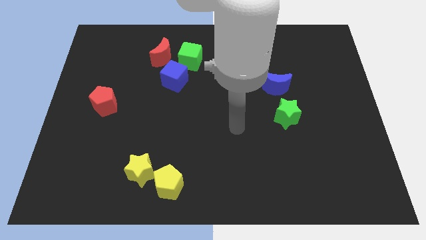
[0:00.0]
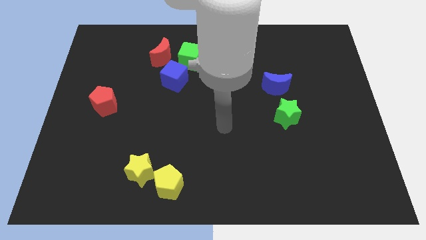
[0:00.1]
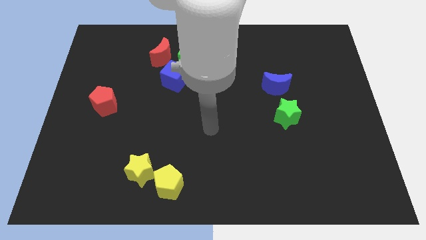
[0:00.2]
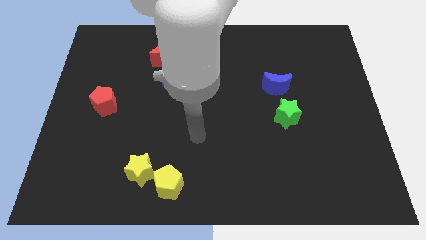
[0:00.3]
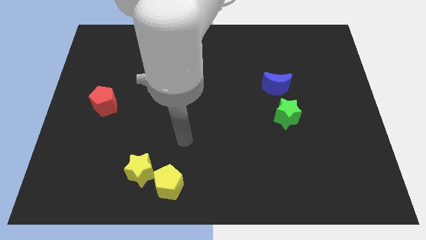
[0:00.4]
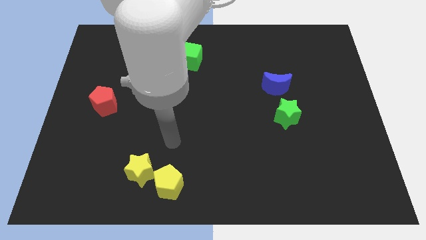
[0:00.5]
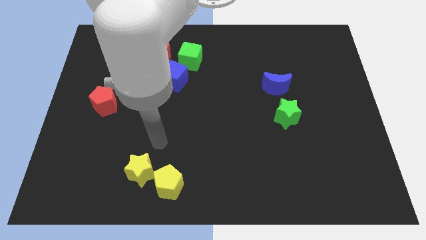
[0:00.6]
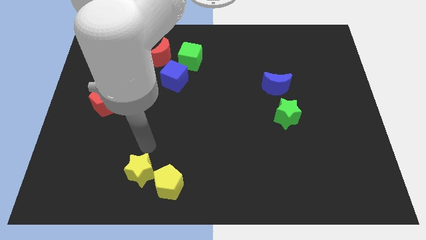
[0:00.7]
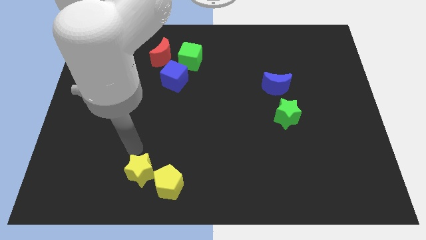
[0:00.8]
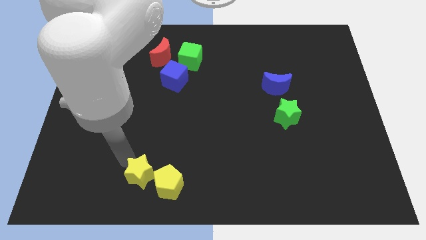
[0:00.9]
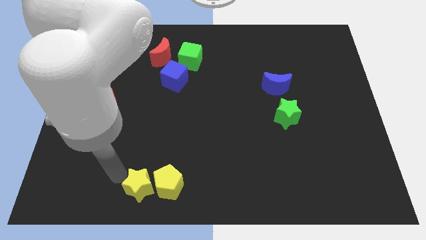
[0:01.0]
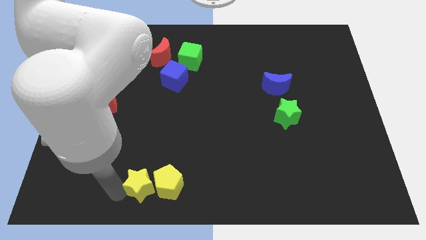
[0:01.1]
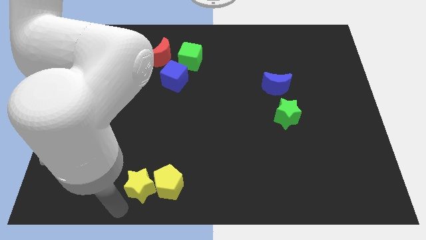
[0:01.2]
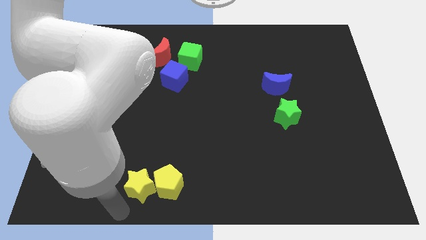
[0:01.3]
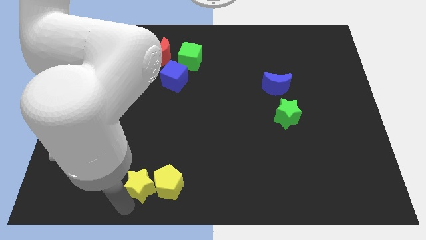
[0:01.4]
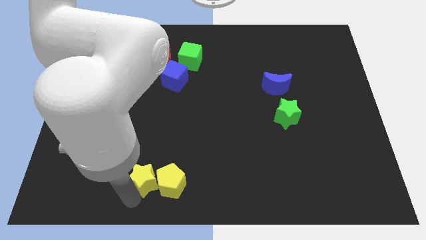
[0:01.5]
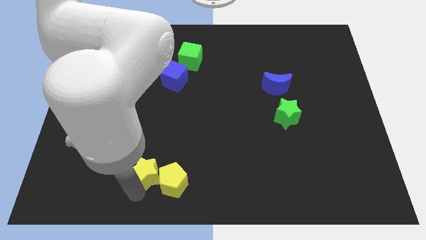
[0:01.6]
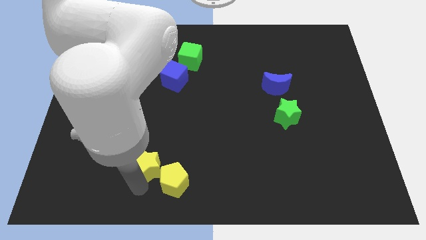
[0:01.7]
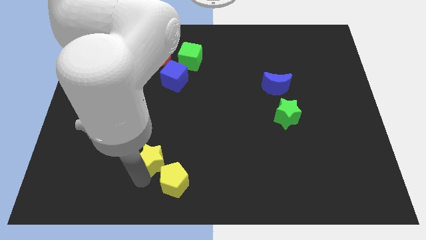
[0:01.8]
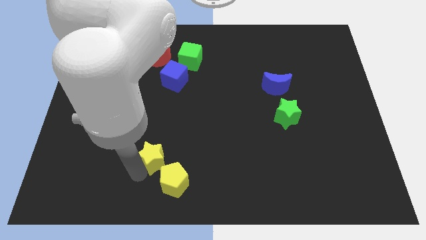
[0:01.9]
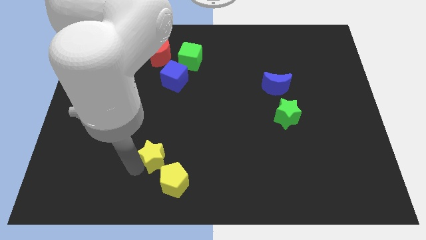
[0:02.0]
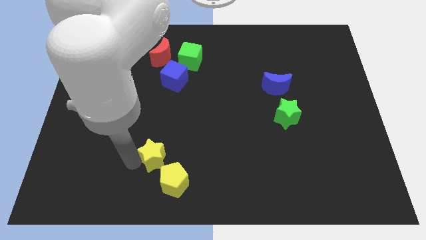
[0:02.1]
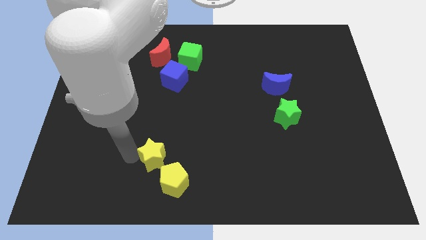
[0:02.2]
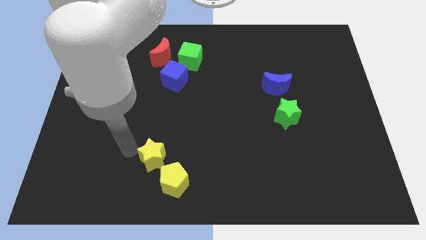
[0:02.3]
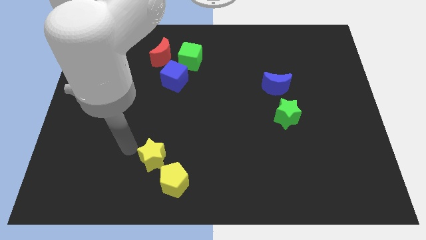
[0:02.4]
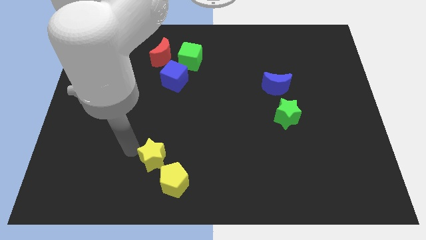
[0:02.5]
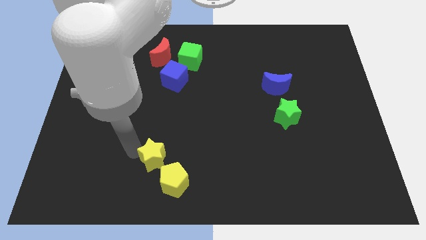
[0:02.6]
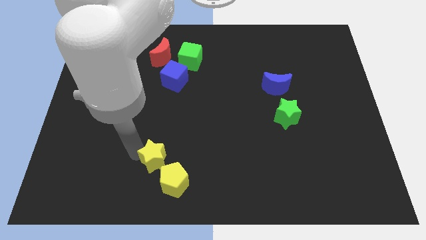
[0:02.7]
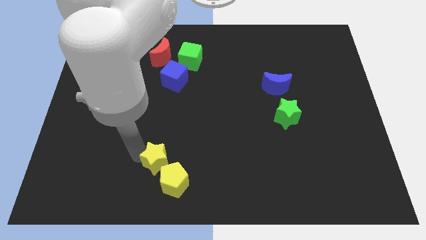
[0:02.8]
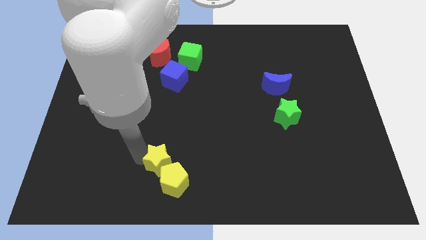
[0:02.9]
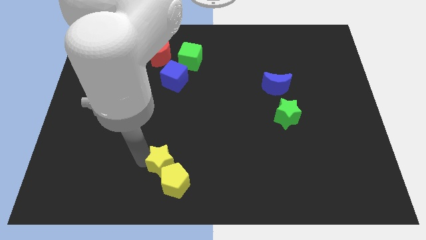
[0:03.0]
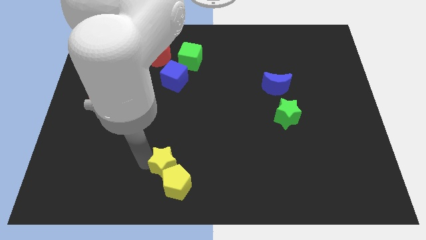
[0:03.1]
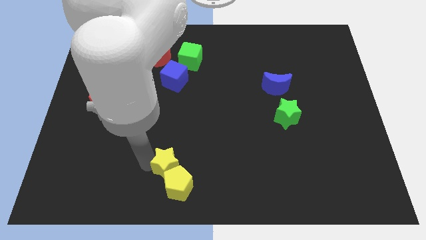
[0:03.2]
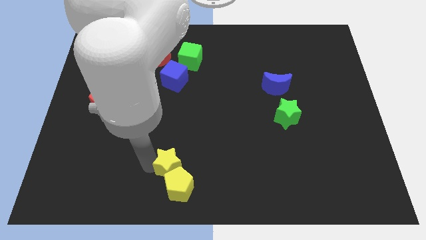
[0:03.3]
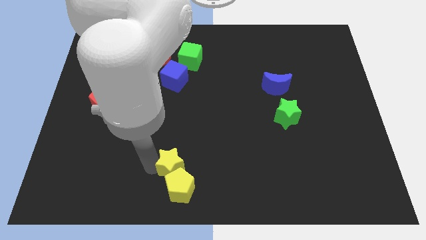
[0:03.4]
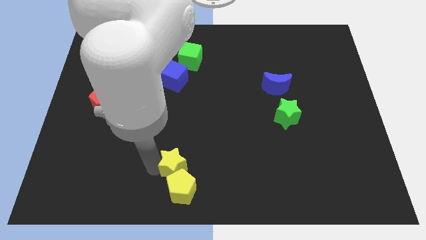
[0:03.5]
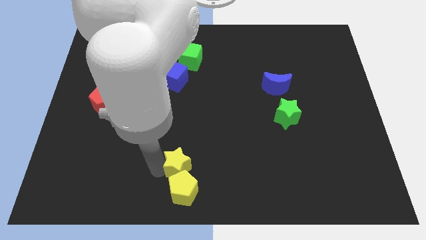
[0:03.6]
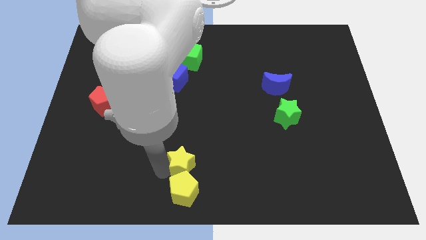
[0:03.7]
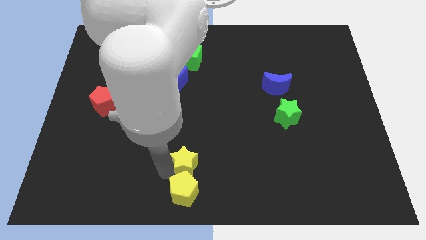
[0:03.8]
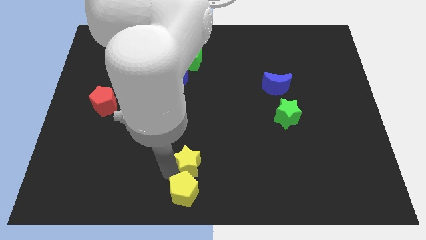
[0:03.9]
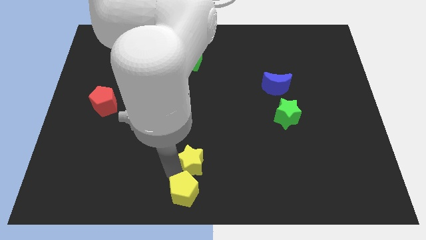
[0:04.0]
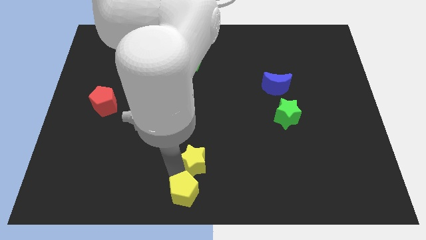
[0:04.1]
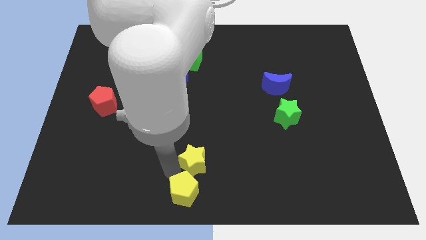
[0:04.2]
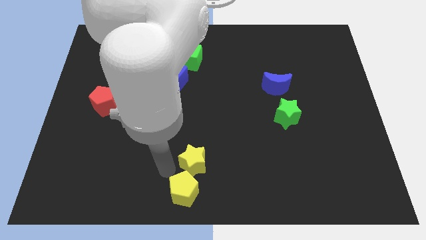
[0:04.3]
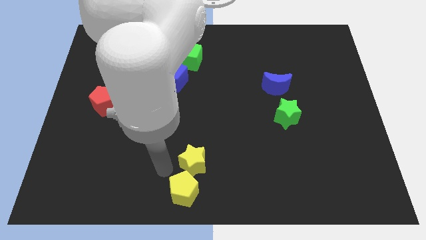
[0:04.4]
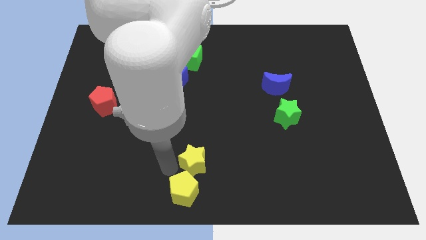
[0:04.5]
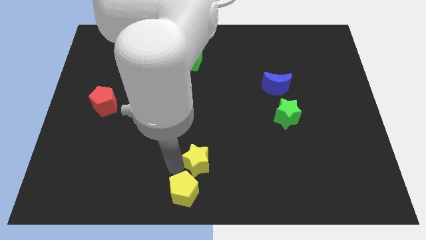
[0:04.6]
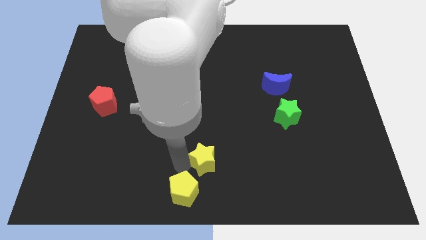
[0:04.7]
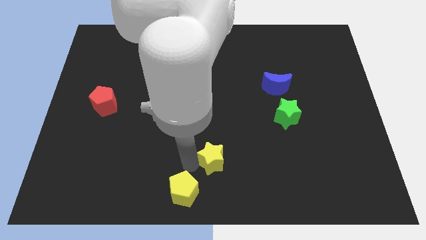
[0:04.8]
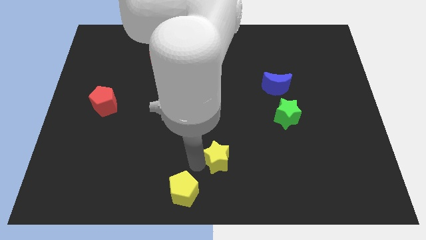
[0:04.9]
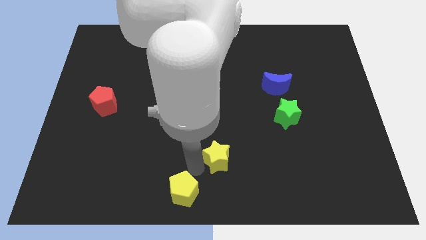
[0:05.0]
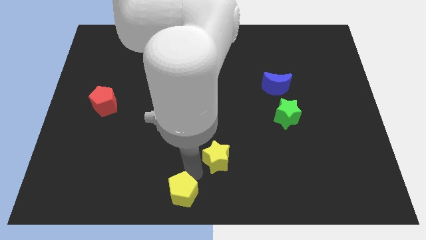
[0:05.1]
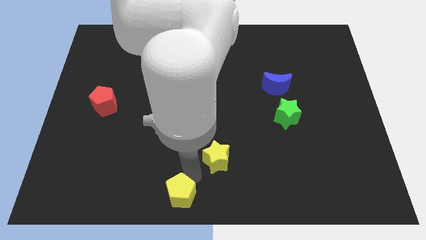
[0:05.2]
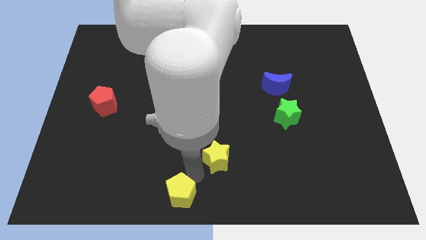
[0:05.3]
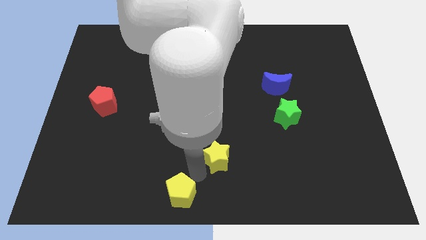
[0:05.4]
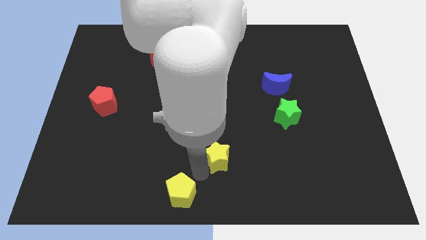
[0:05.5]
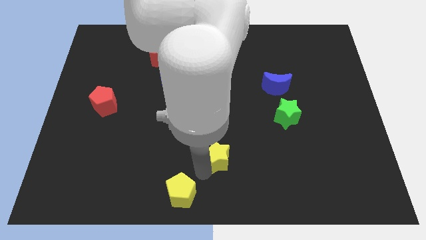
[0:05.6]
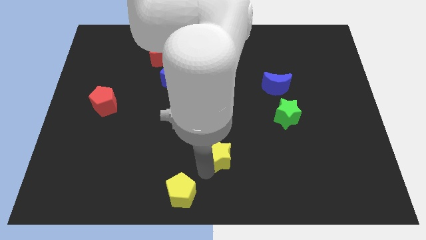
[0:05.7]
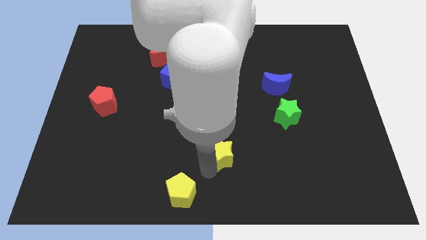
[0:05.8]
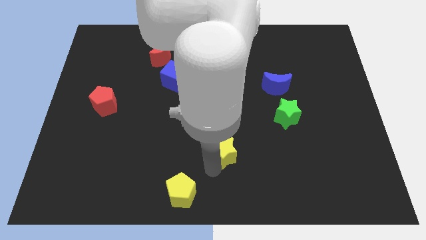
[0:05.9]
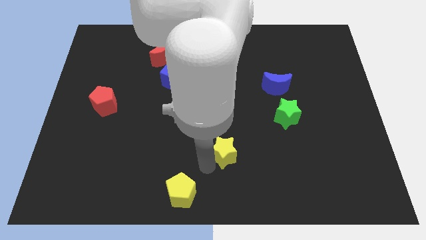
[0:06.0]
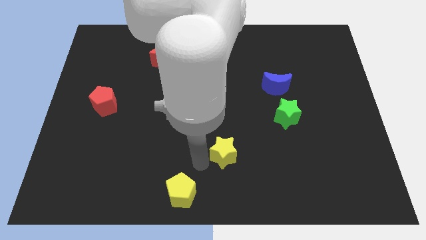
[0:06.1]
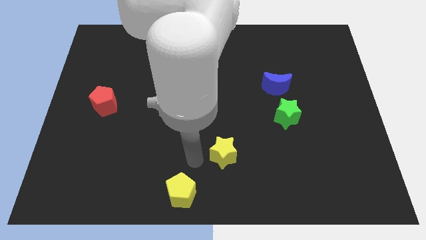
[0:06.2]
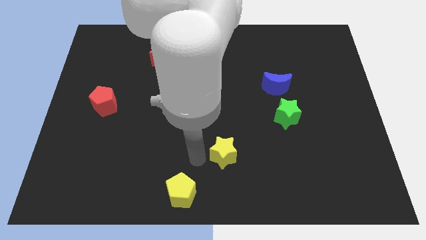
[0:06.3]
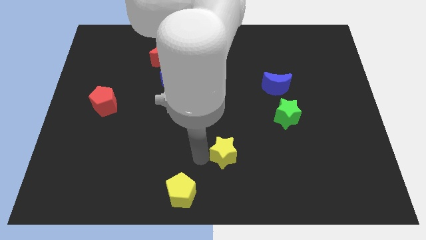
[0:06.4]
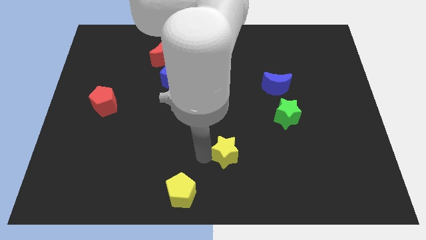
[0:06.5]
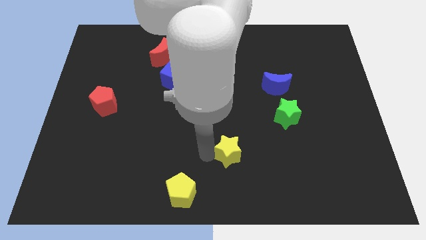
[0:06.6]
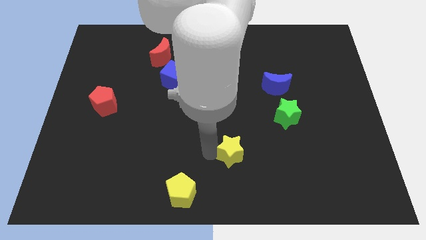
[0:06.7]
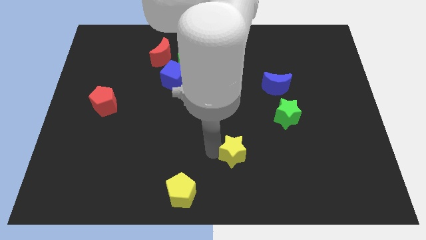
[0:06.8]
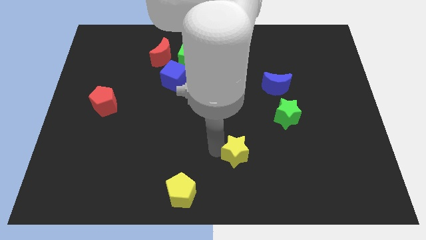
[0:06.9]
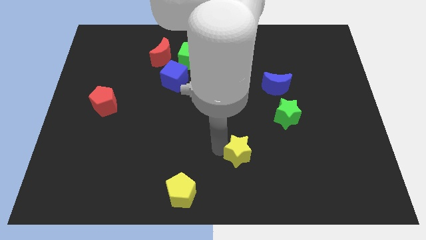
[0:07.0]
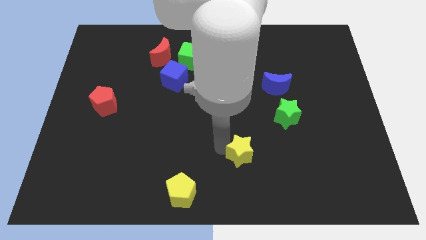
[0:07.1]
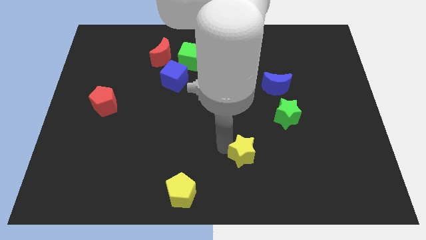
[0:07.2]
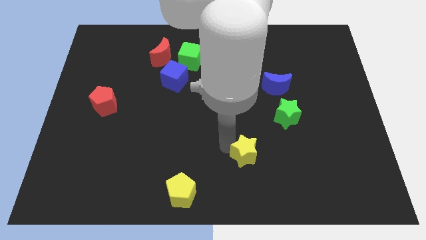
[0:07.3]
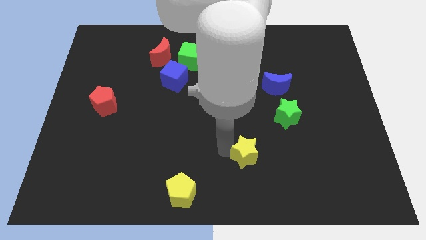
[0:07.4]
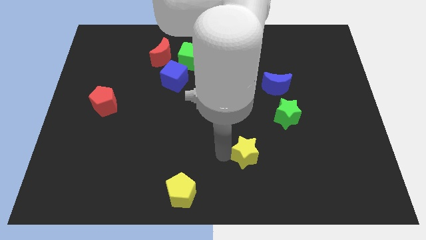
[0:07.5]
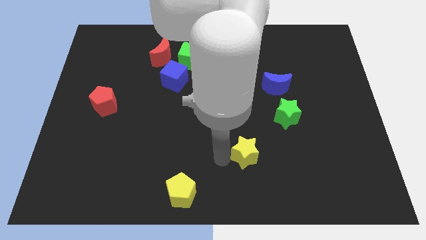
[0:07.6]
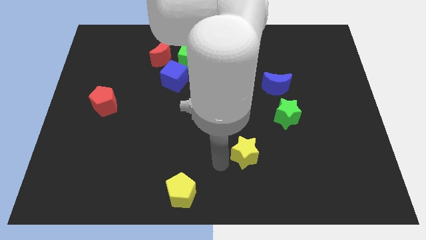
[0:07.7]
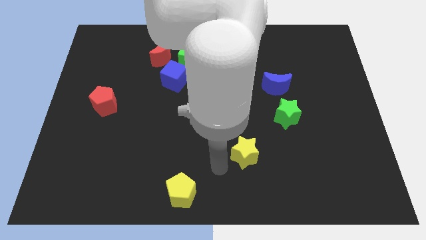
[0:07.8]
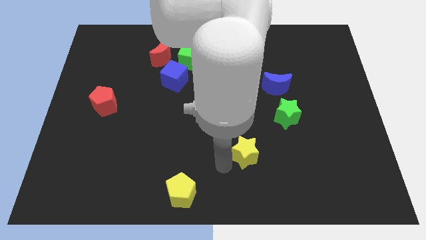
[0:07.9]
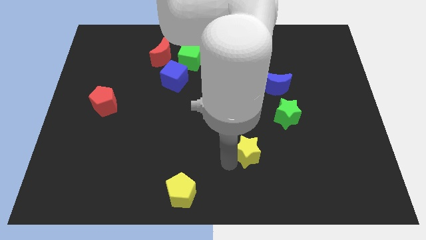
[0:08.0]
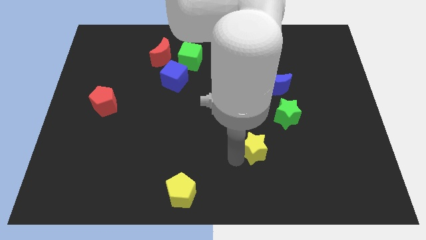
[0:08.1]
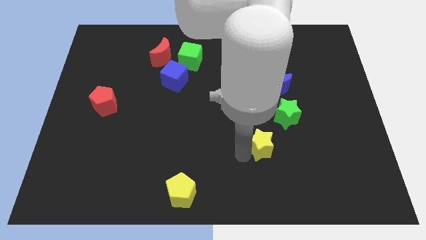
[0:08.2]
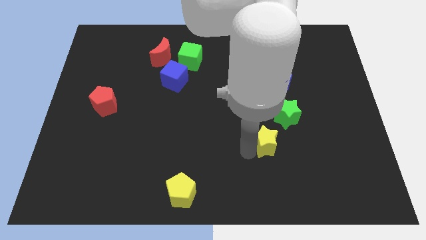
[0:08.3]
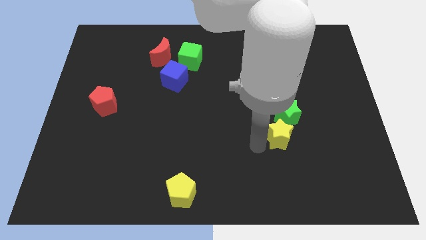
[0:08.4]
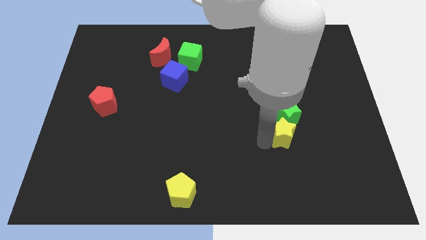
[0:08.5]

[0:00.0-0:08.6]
move the yellow star to the bottom right side of the green star
